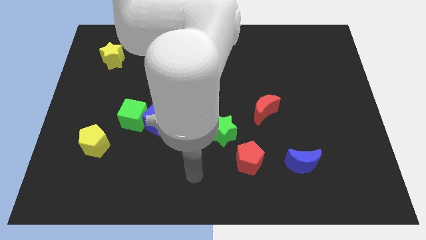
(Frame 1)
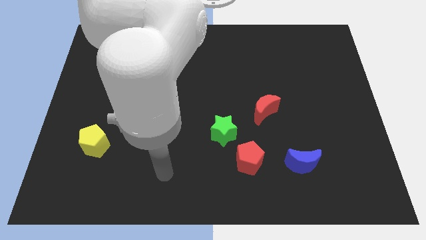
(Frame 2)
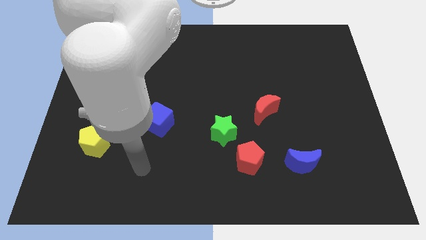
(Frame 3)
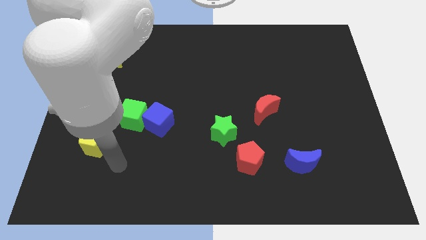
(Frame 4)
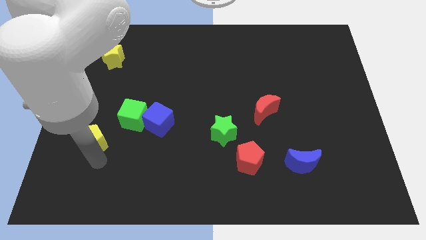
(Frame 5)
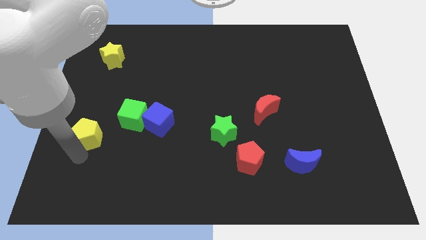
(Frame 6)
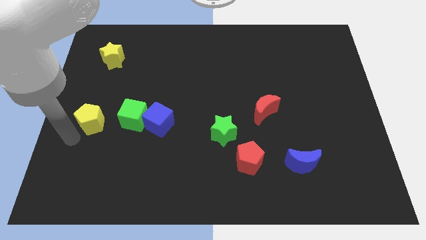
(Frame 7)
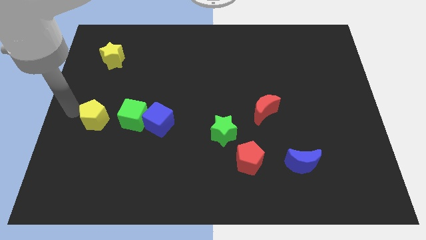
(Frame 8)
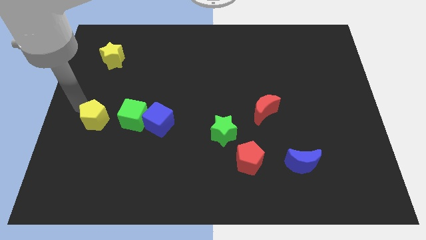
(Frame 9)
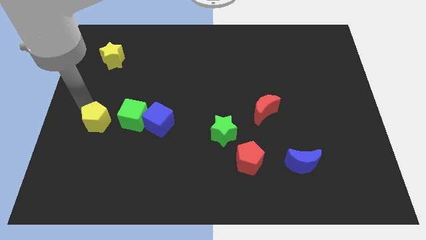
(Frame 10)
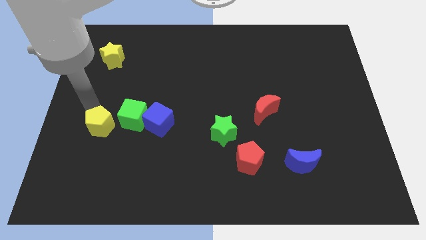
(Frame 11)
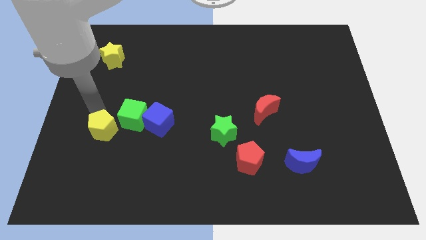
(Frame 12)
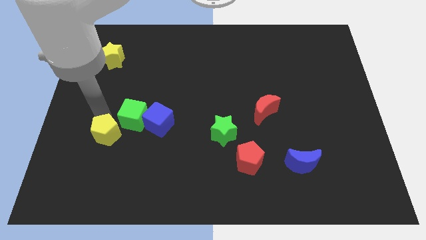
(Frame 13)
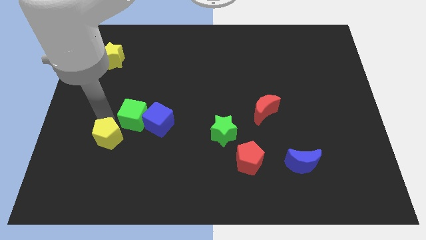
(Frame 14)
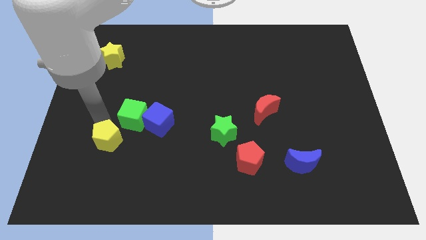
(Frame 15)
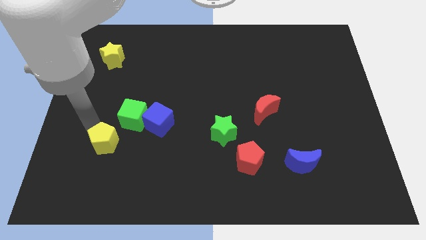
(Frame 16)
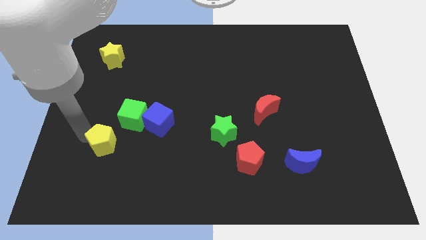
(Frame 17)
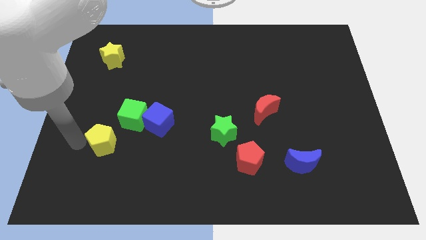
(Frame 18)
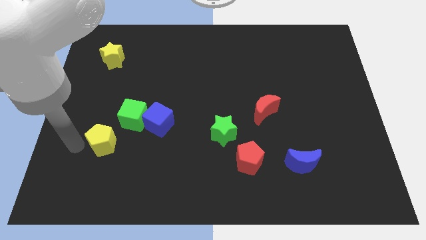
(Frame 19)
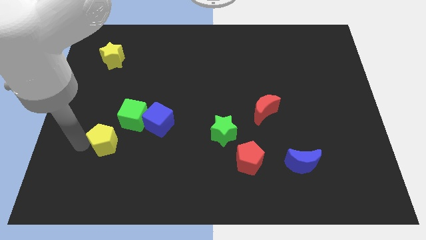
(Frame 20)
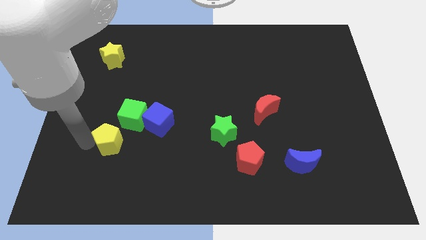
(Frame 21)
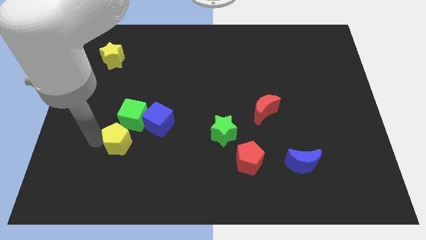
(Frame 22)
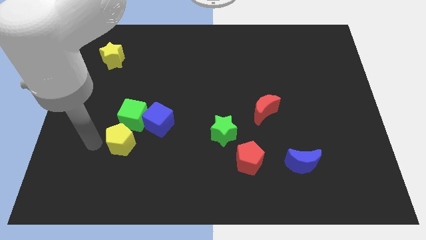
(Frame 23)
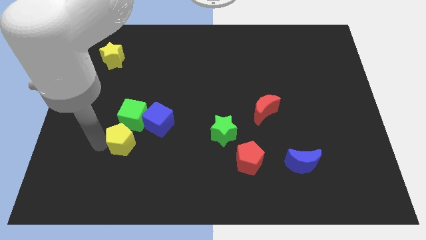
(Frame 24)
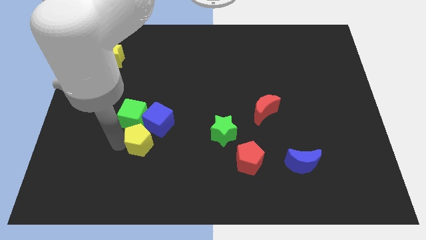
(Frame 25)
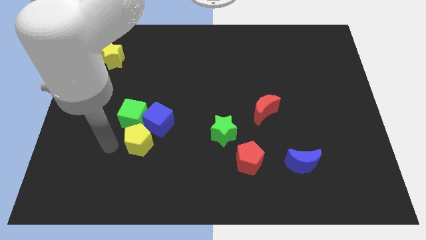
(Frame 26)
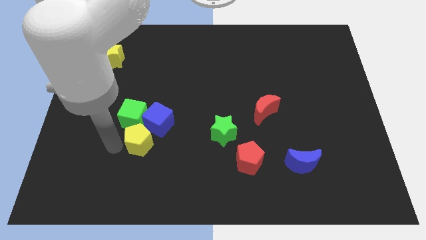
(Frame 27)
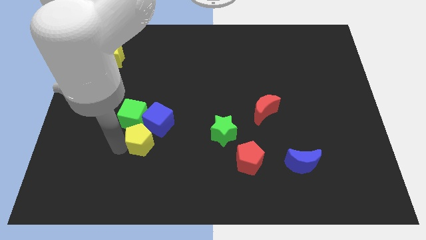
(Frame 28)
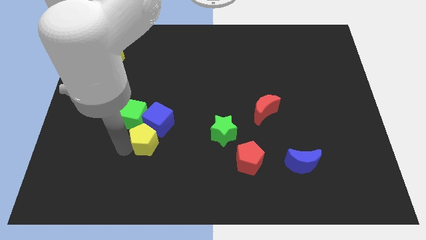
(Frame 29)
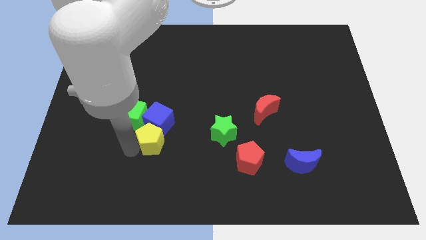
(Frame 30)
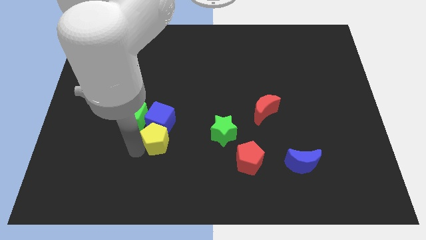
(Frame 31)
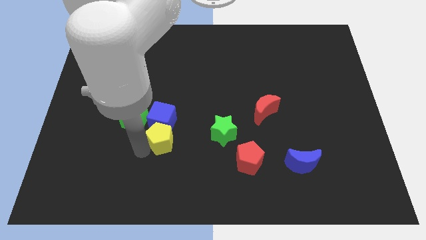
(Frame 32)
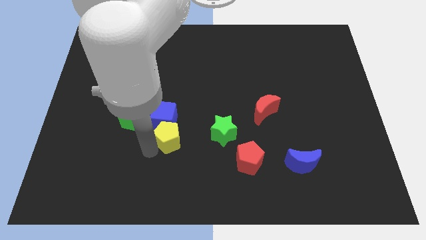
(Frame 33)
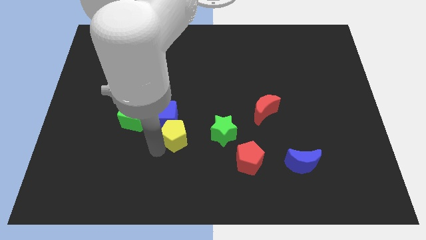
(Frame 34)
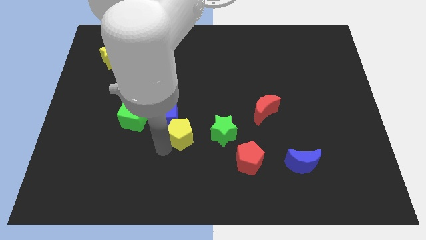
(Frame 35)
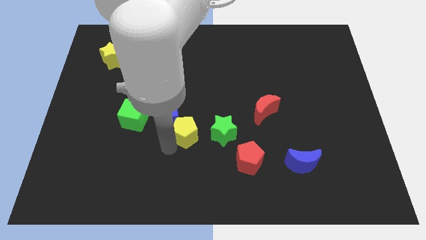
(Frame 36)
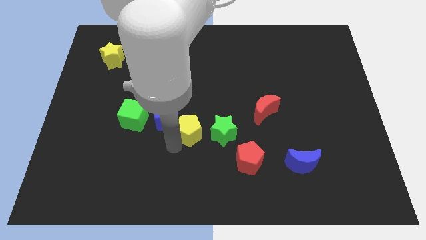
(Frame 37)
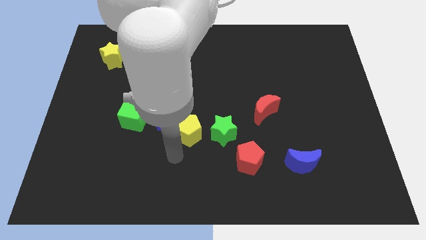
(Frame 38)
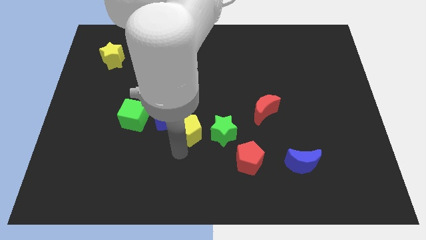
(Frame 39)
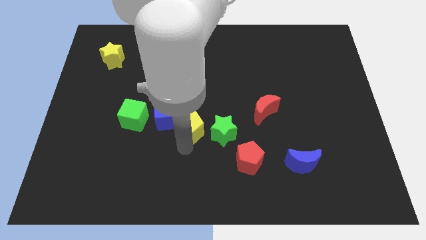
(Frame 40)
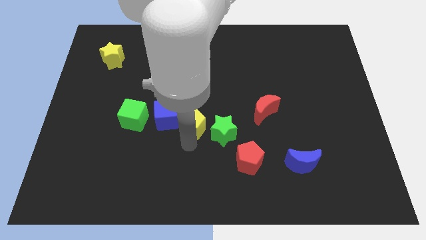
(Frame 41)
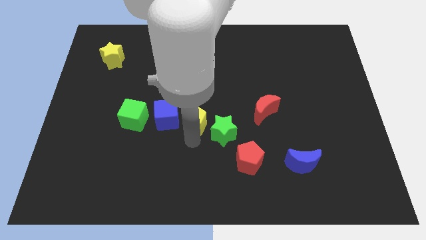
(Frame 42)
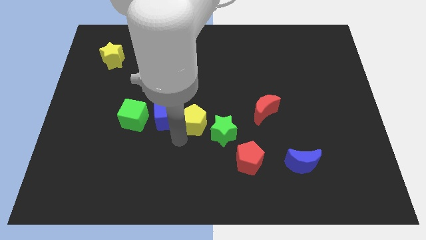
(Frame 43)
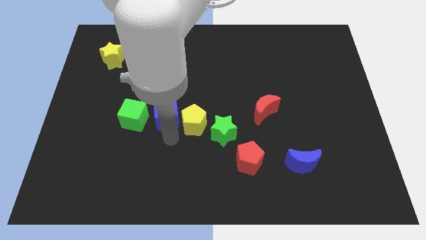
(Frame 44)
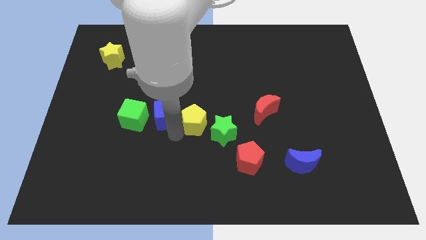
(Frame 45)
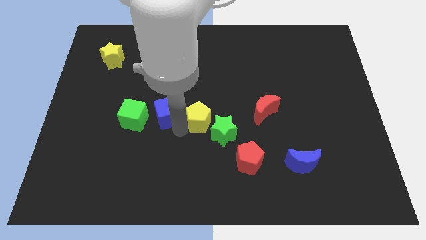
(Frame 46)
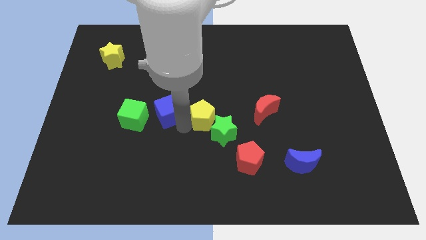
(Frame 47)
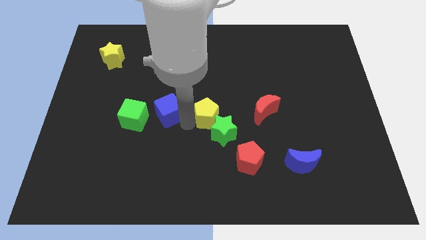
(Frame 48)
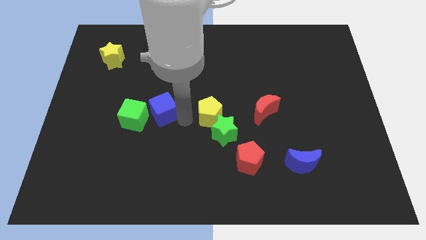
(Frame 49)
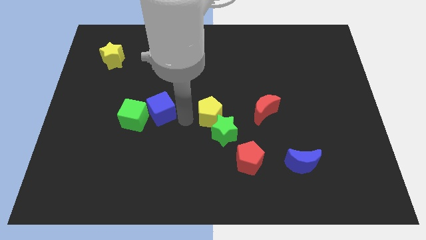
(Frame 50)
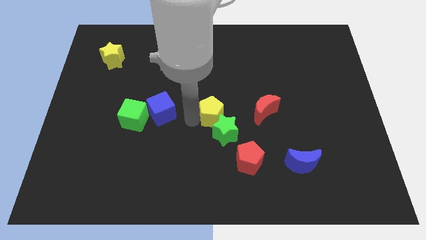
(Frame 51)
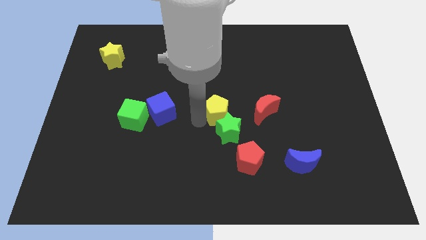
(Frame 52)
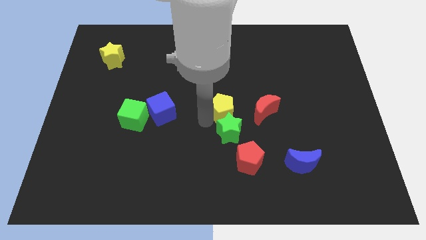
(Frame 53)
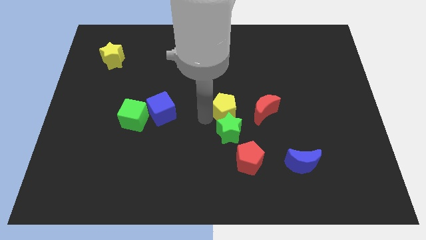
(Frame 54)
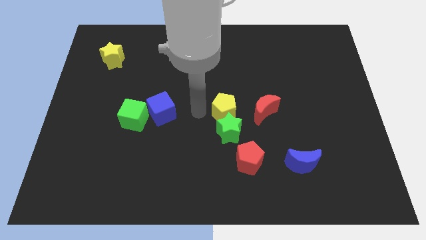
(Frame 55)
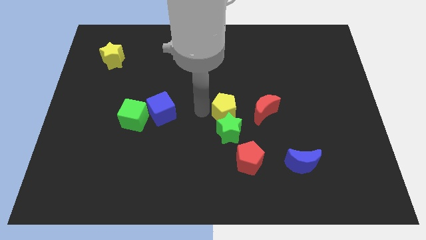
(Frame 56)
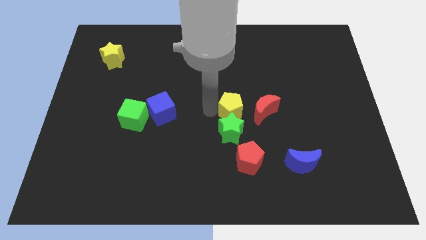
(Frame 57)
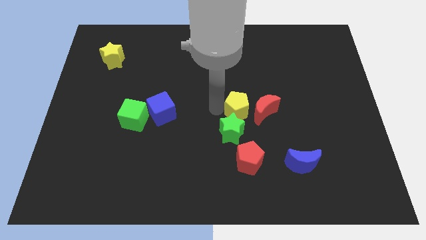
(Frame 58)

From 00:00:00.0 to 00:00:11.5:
push the yellow pentagon next to the red moon
